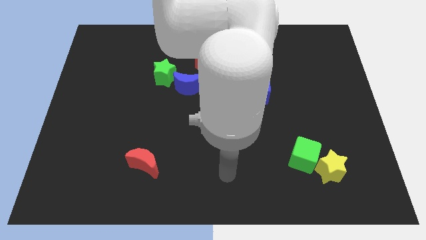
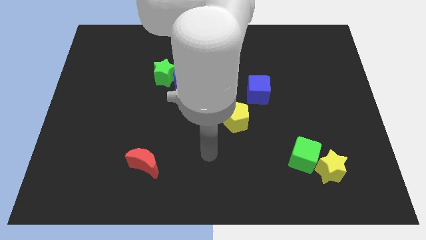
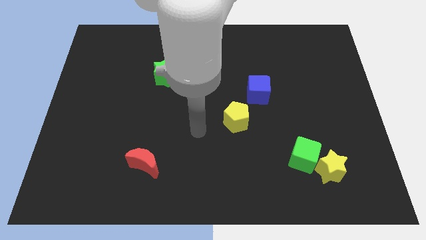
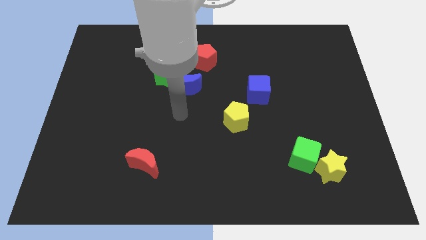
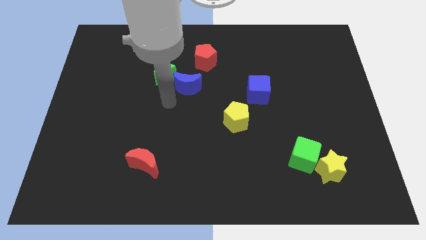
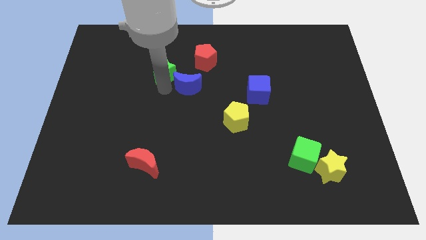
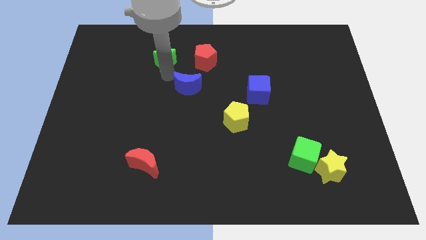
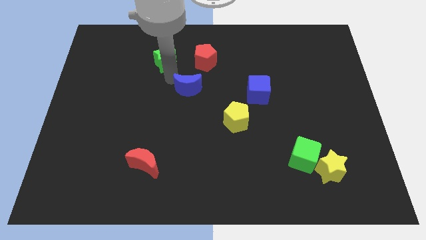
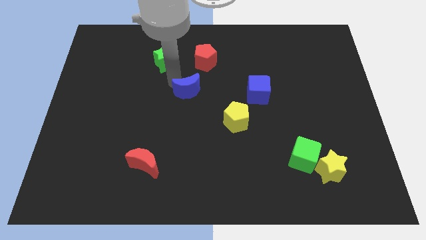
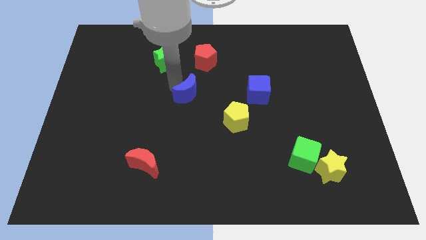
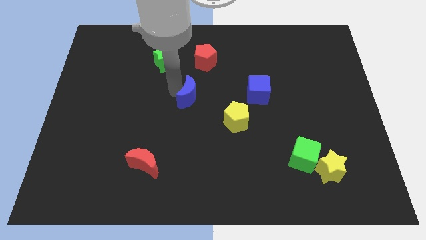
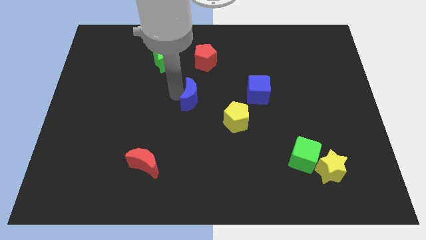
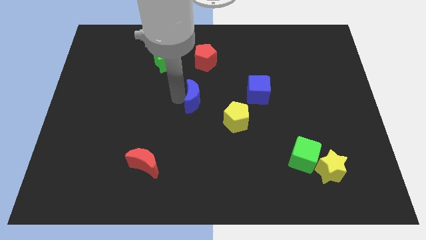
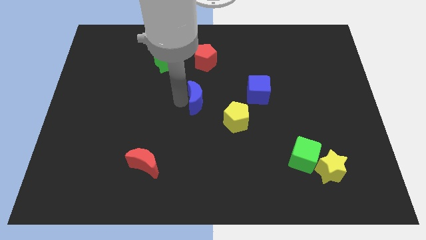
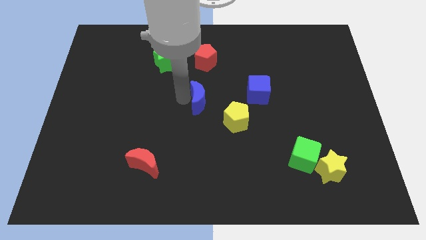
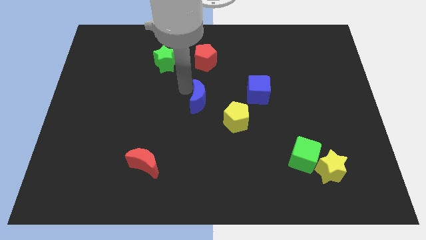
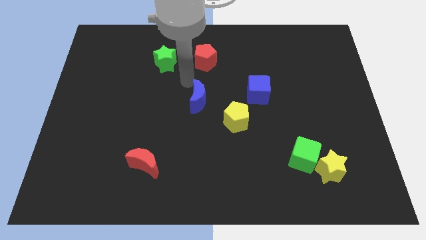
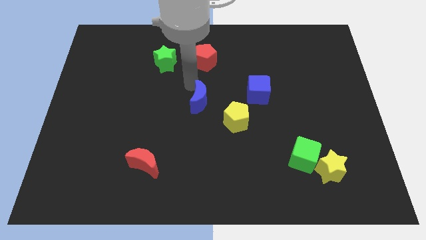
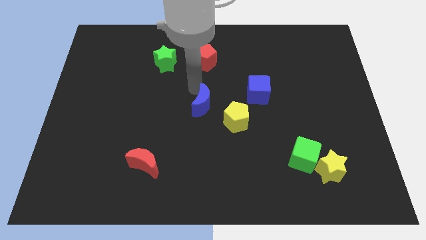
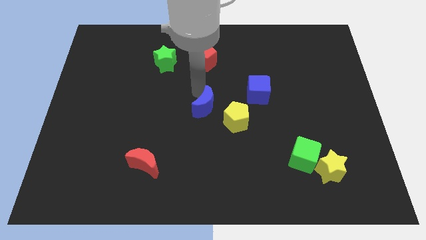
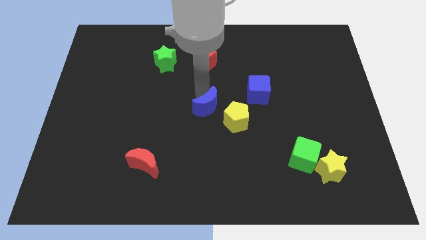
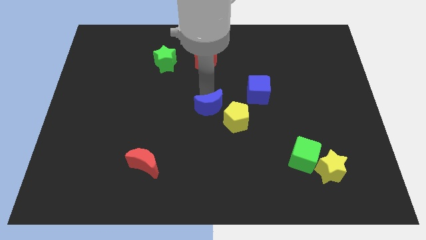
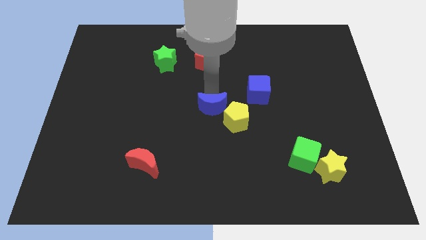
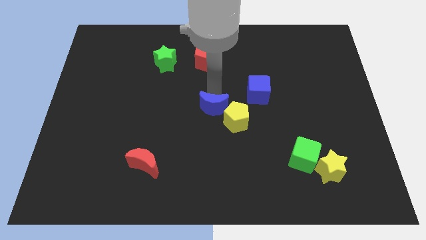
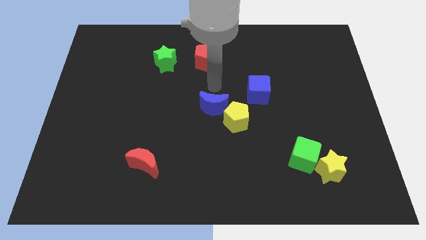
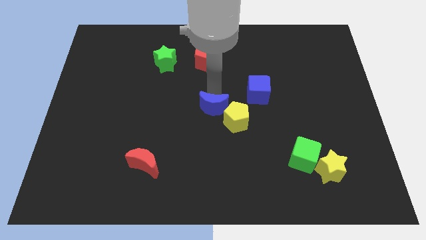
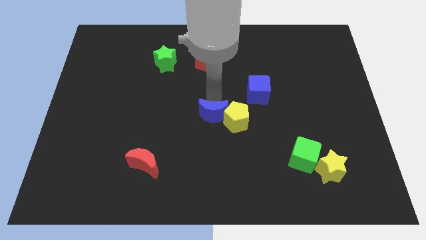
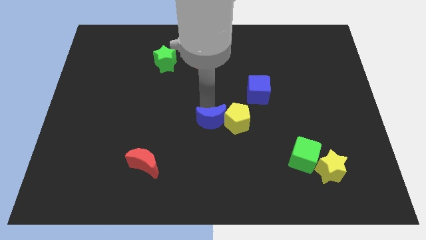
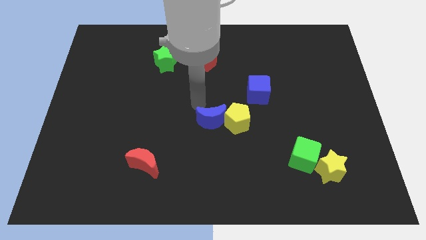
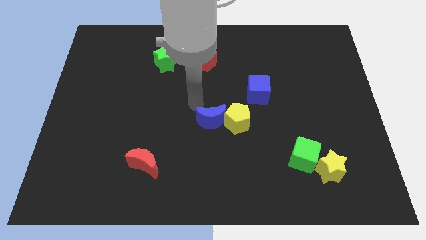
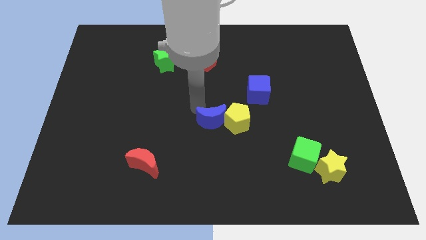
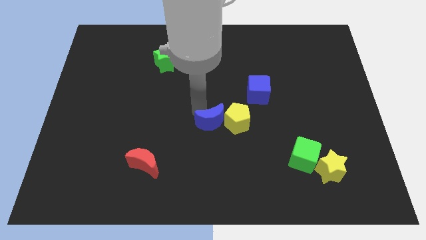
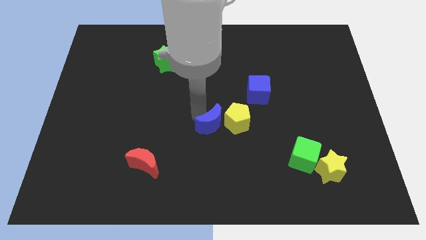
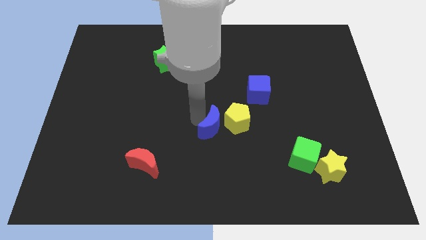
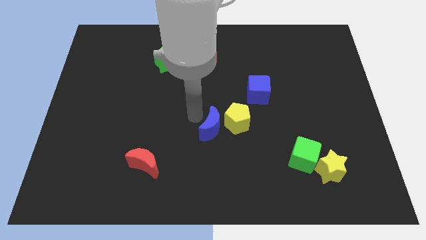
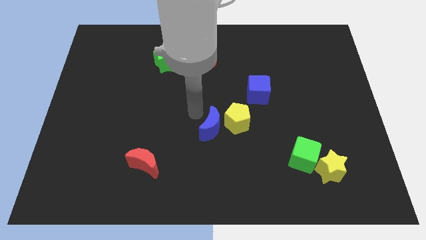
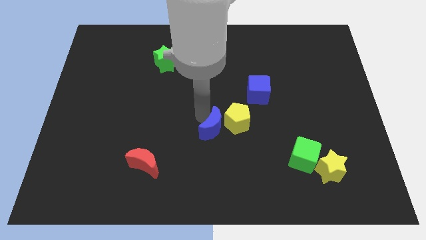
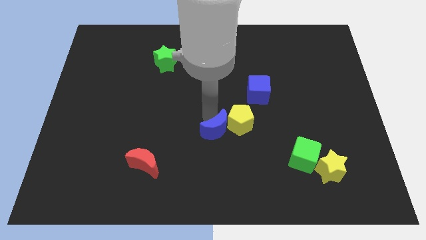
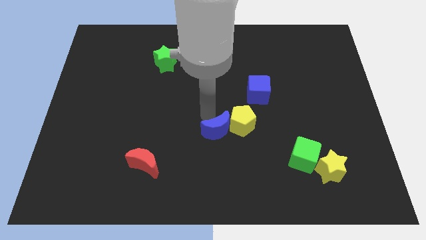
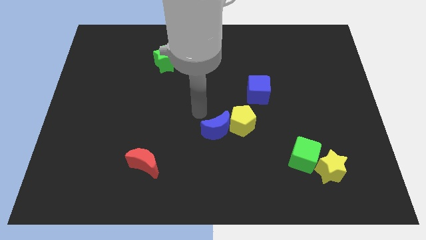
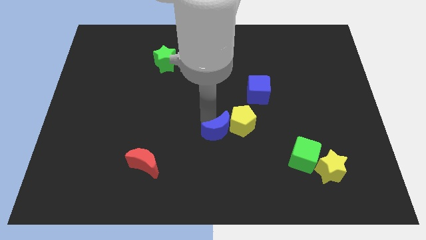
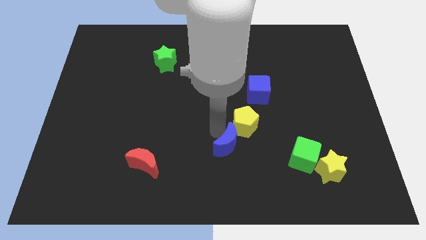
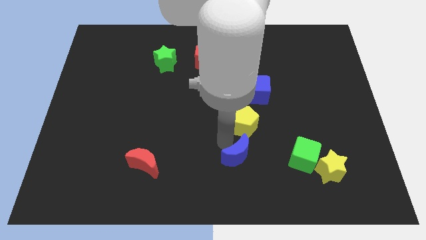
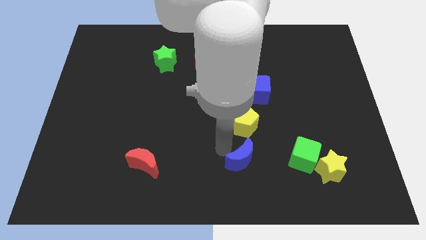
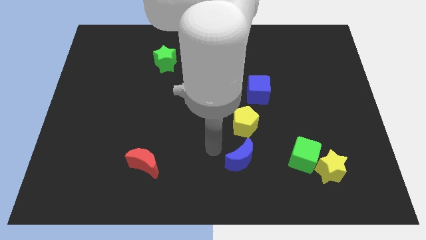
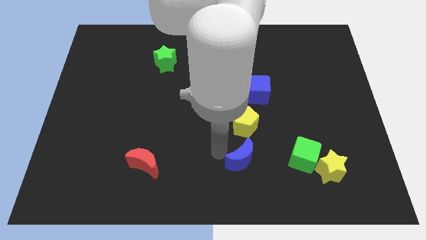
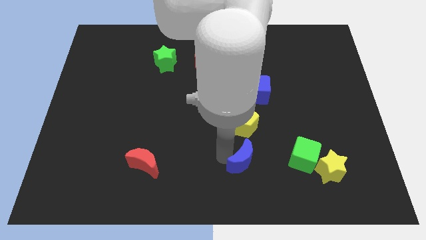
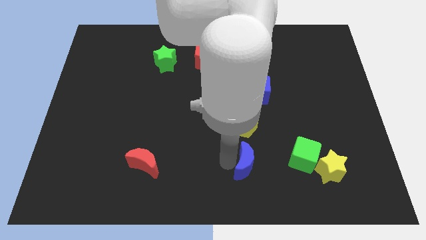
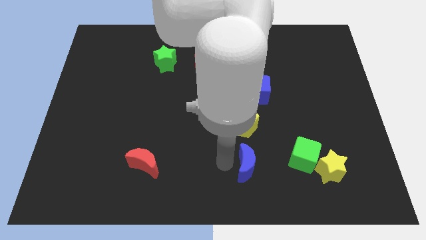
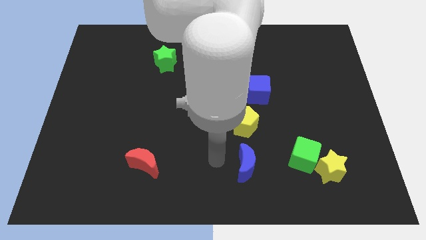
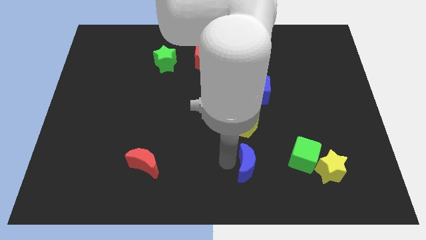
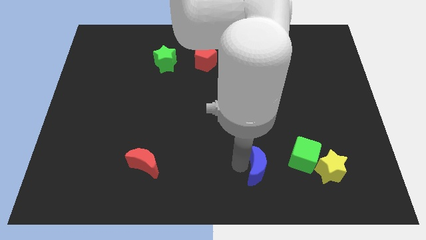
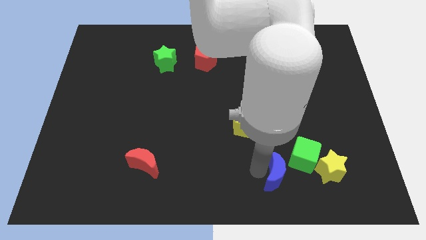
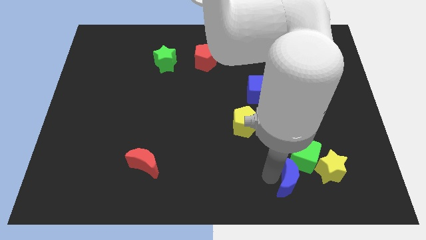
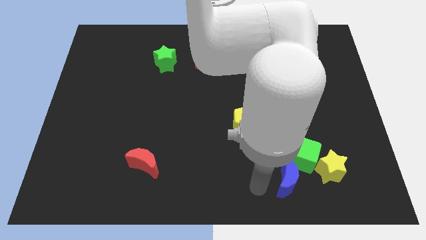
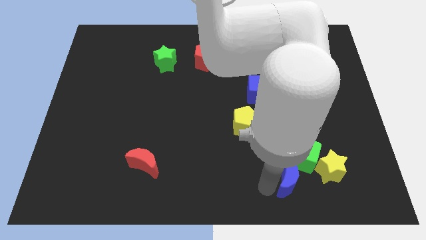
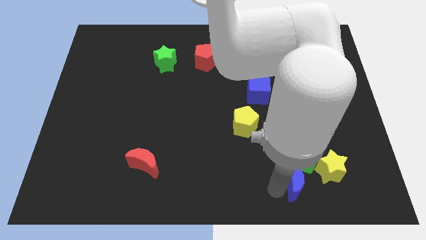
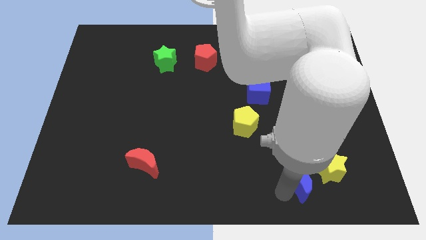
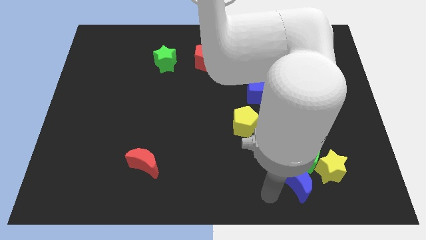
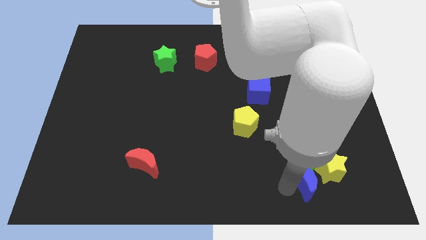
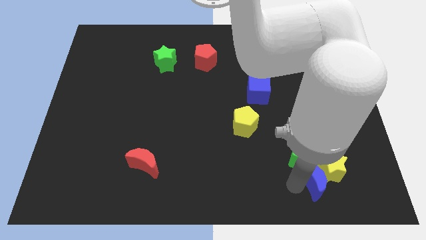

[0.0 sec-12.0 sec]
move the blue moon close to the yellow star
